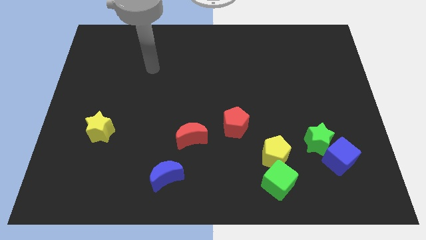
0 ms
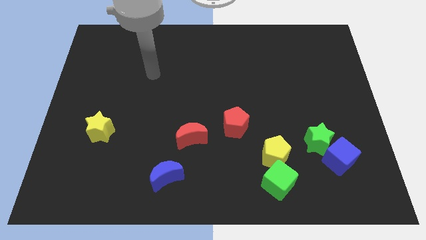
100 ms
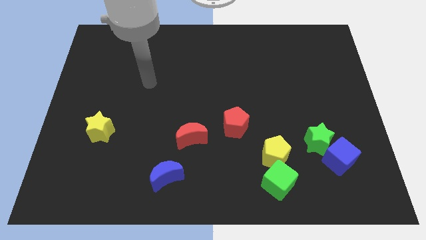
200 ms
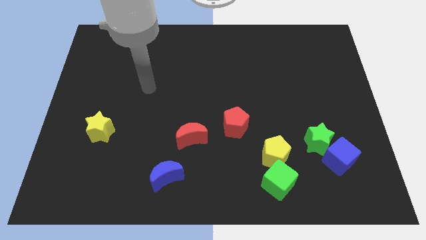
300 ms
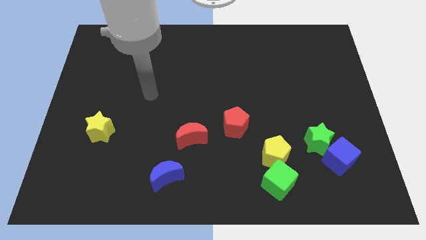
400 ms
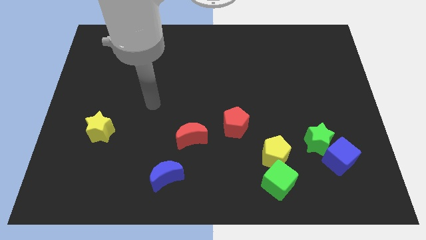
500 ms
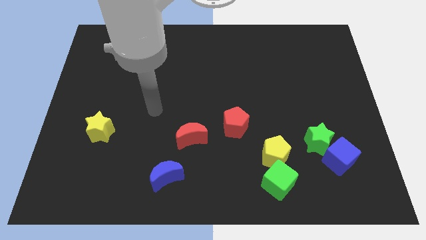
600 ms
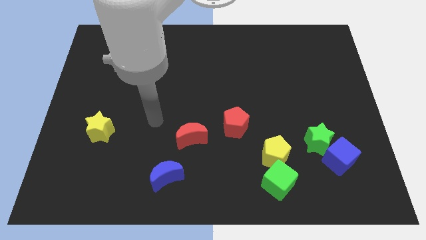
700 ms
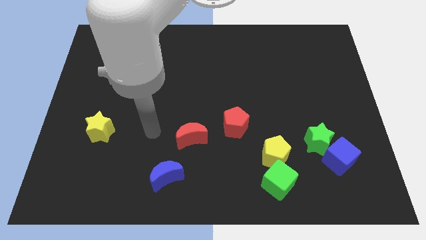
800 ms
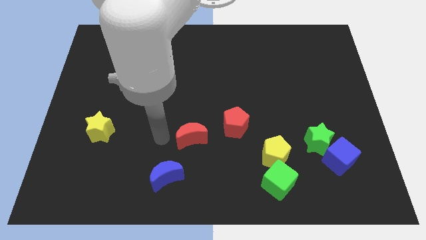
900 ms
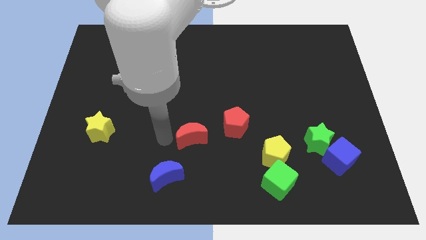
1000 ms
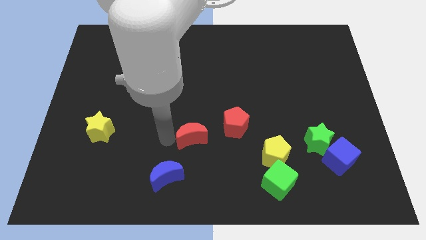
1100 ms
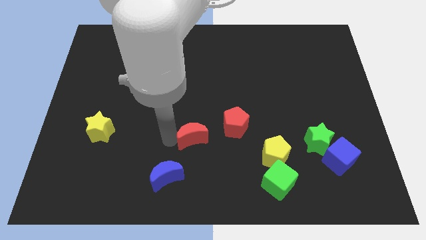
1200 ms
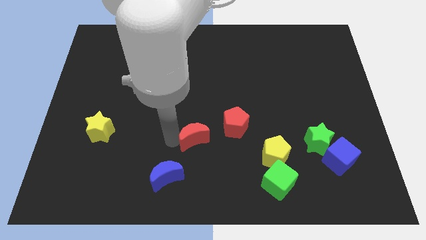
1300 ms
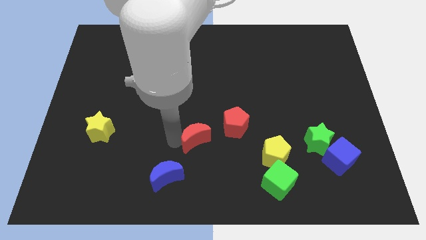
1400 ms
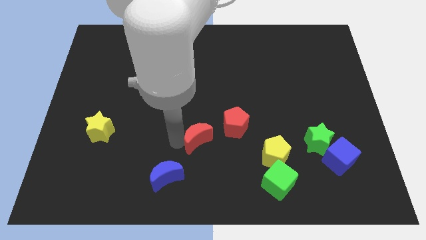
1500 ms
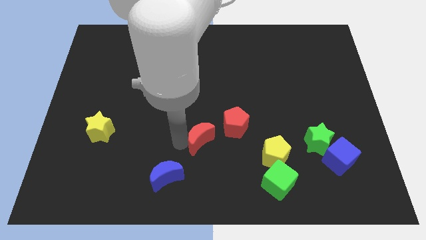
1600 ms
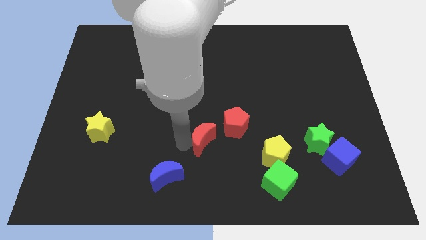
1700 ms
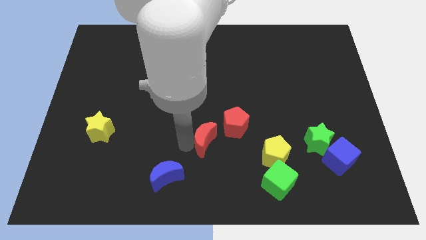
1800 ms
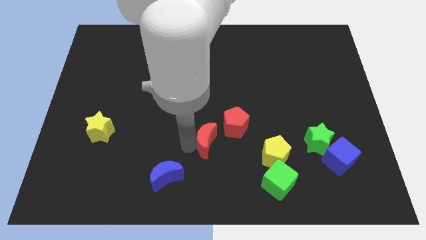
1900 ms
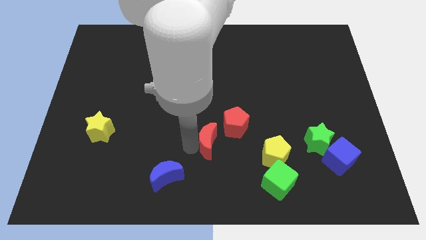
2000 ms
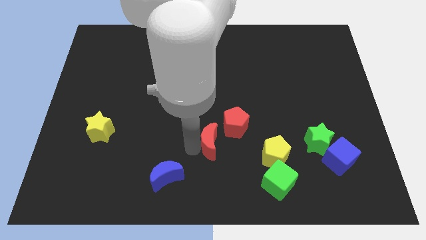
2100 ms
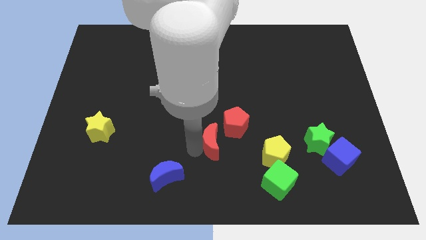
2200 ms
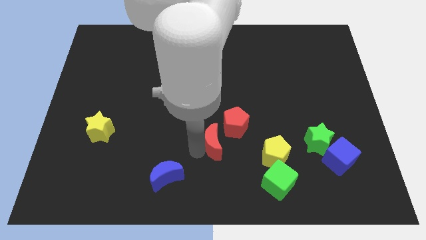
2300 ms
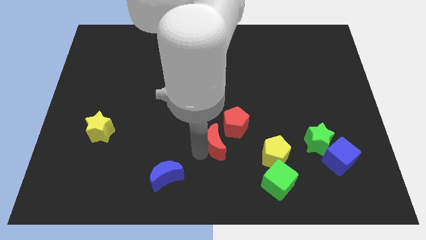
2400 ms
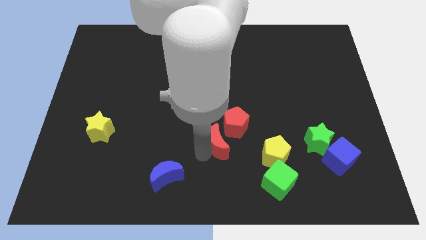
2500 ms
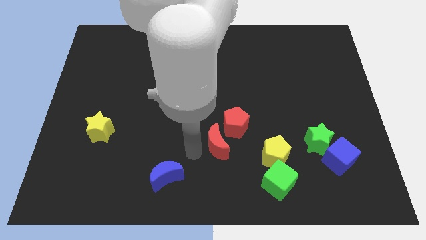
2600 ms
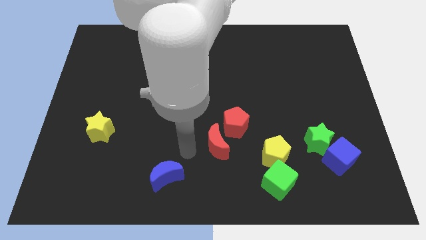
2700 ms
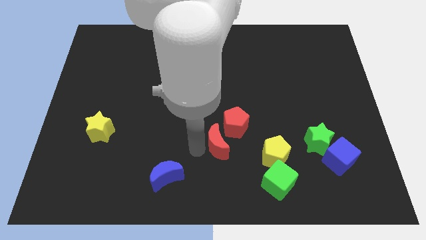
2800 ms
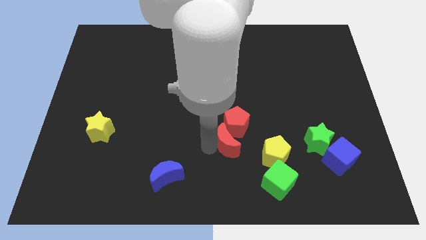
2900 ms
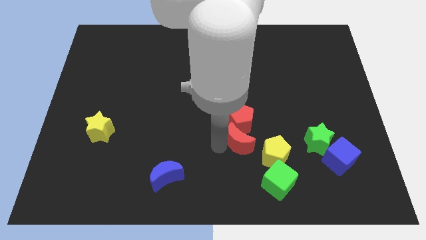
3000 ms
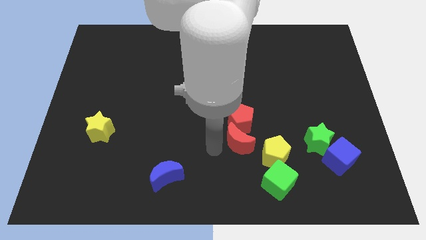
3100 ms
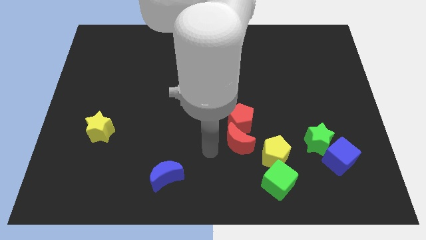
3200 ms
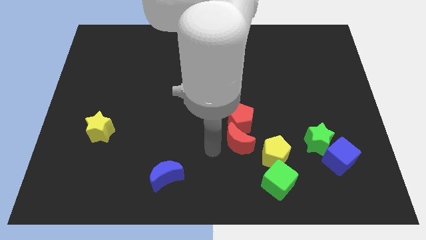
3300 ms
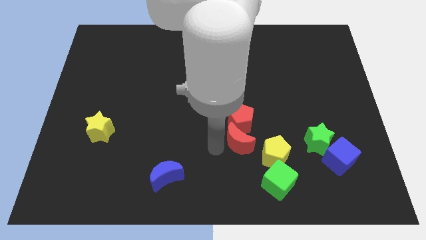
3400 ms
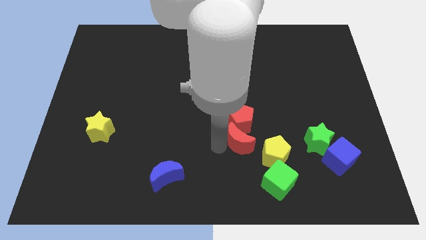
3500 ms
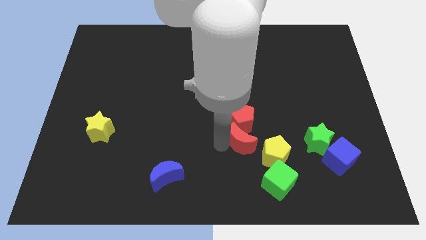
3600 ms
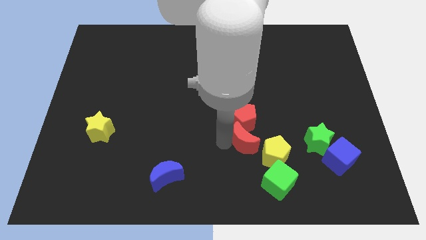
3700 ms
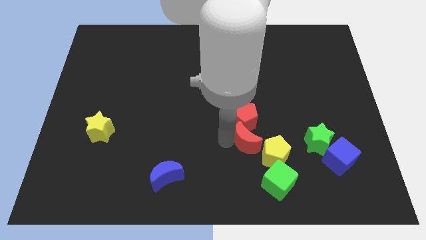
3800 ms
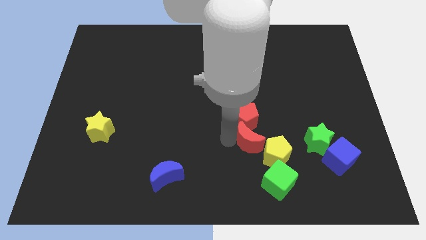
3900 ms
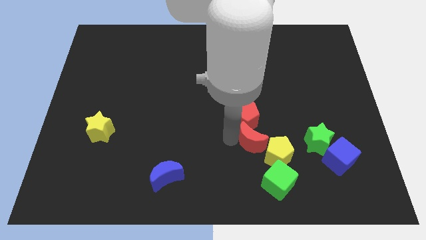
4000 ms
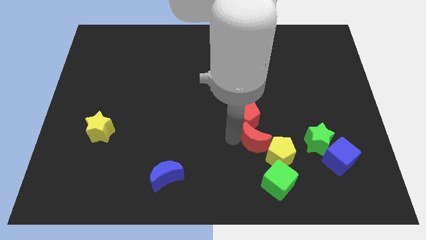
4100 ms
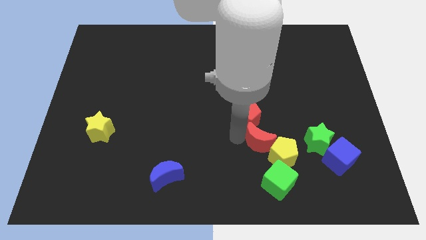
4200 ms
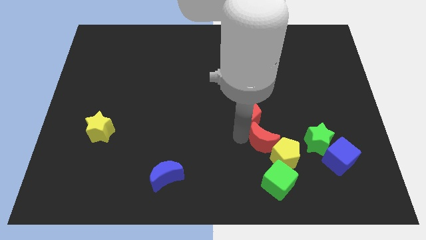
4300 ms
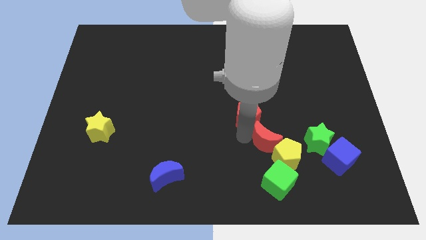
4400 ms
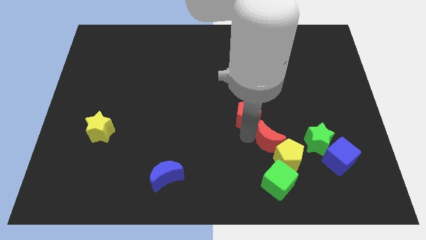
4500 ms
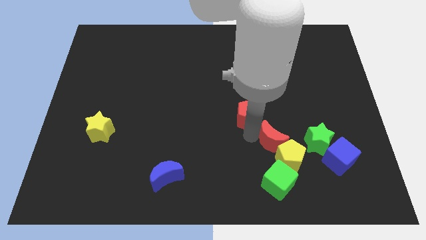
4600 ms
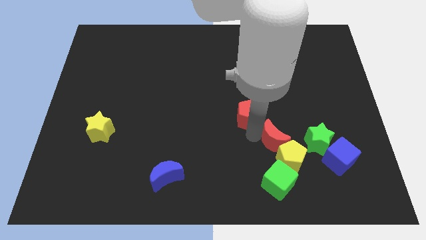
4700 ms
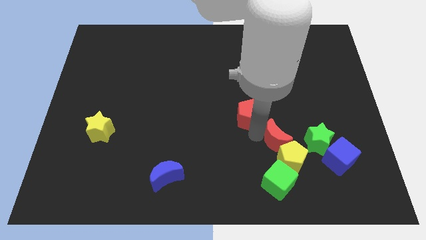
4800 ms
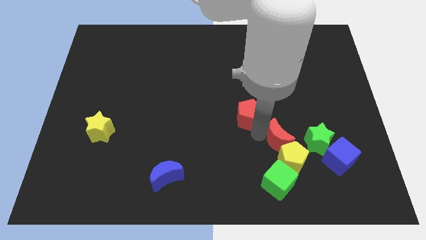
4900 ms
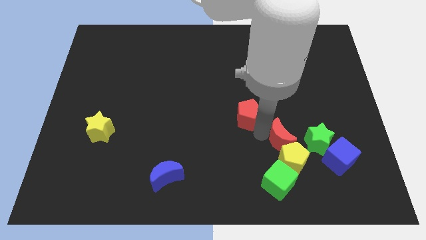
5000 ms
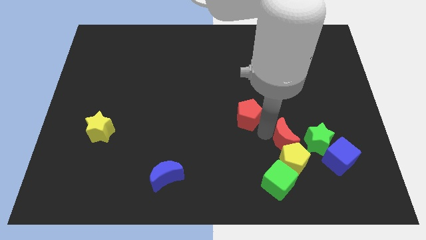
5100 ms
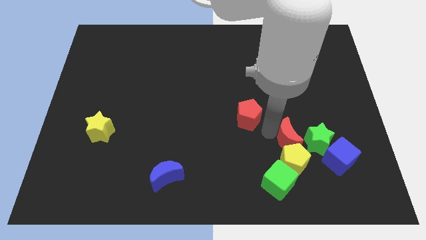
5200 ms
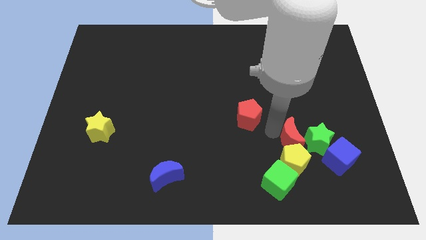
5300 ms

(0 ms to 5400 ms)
put the red moon close to the green star

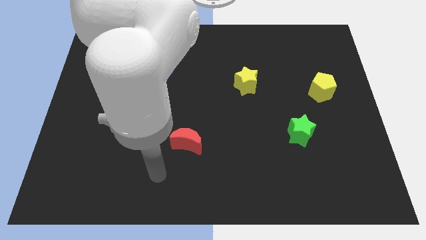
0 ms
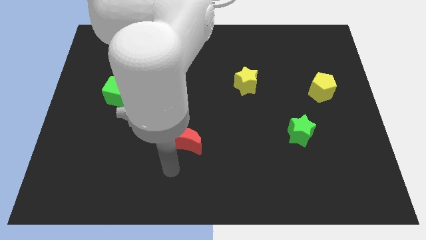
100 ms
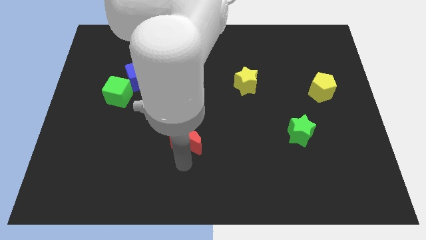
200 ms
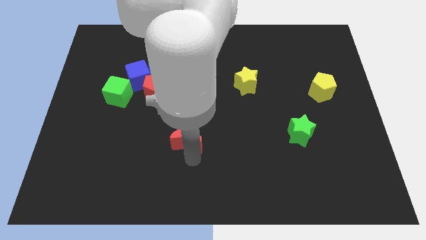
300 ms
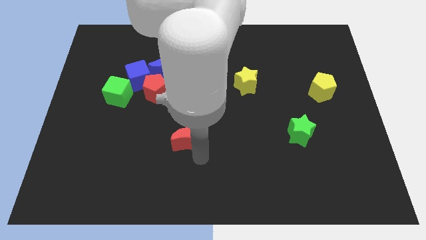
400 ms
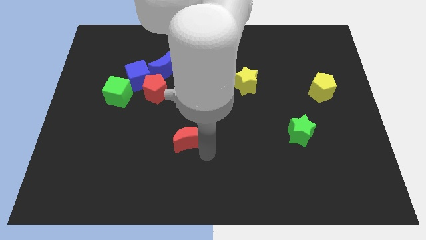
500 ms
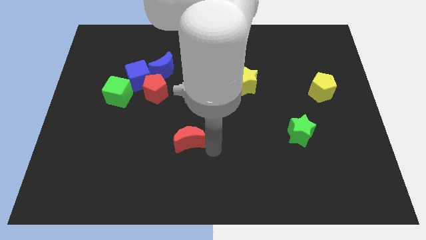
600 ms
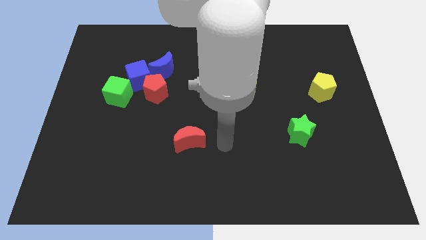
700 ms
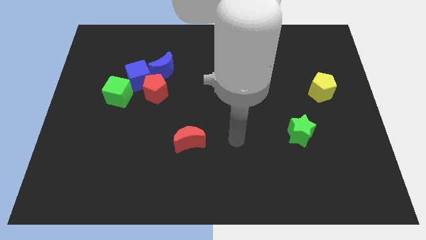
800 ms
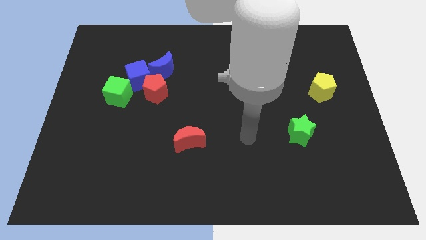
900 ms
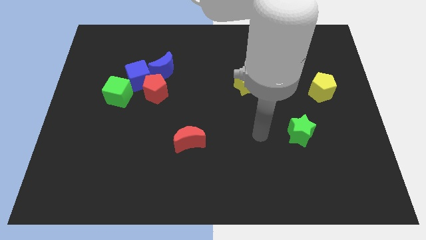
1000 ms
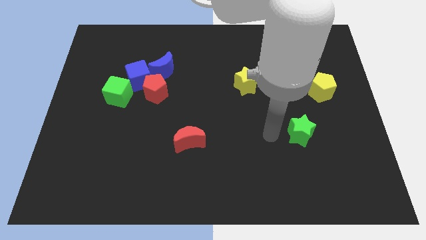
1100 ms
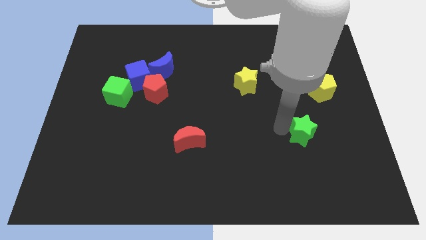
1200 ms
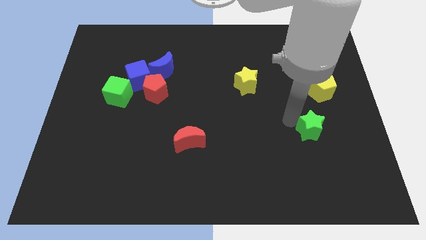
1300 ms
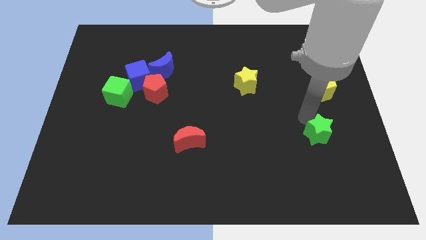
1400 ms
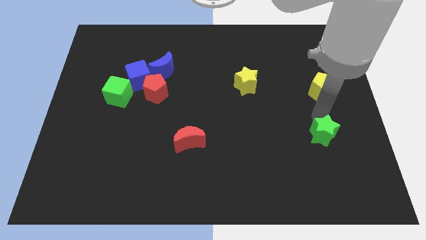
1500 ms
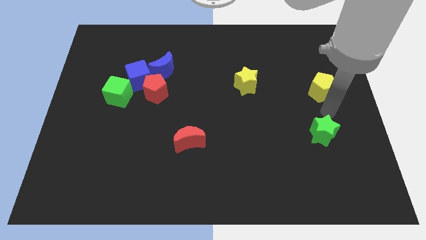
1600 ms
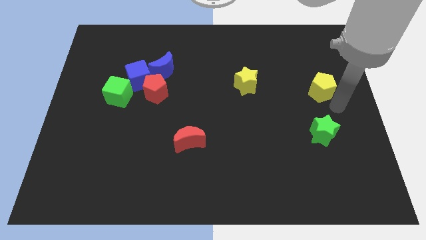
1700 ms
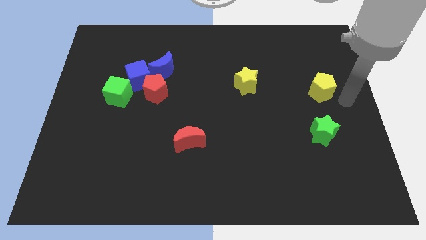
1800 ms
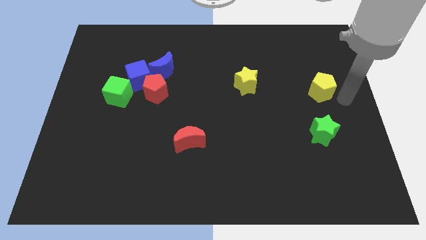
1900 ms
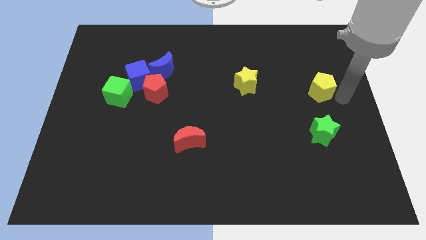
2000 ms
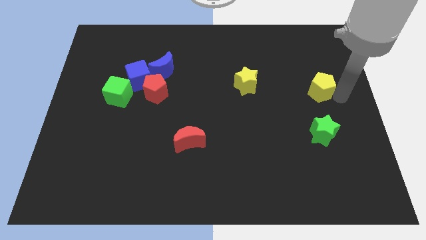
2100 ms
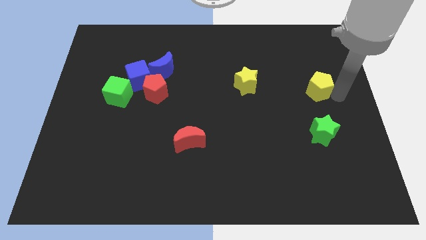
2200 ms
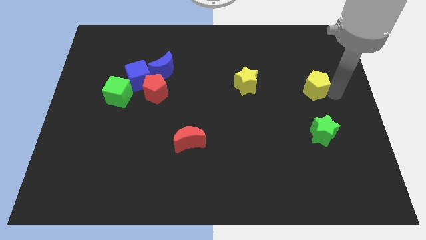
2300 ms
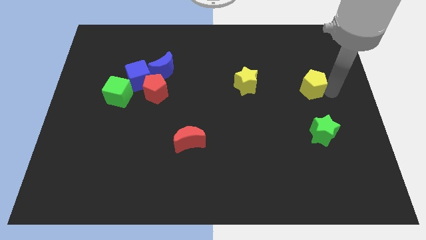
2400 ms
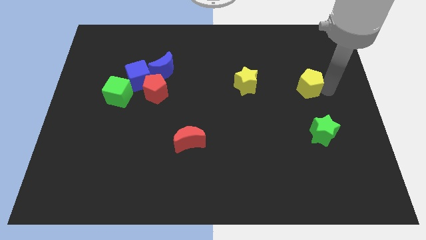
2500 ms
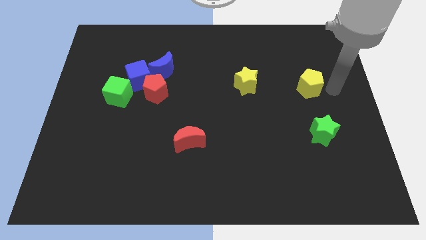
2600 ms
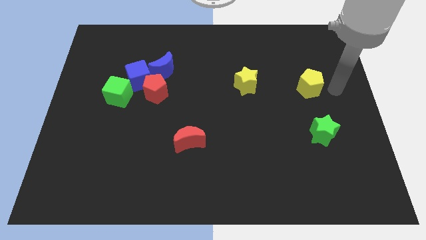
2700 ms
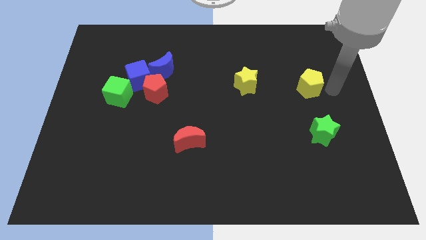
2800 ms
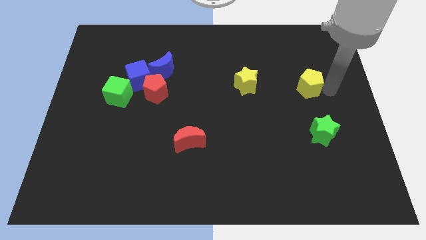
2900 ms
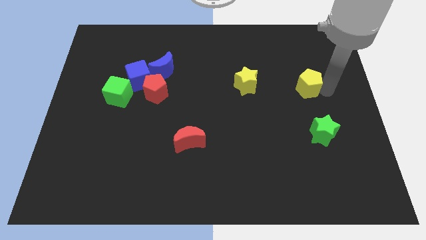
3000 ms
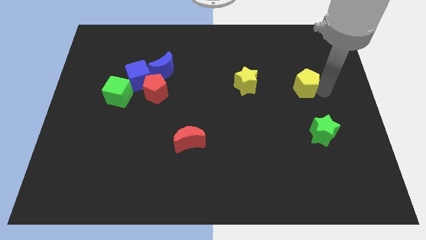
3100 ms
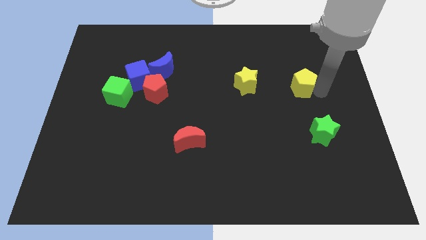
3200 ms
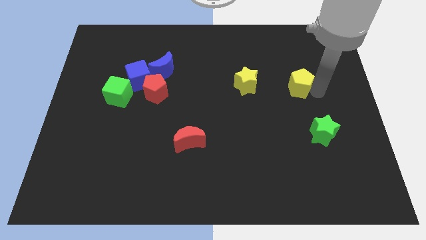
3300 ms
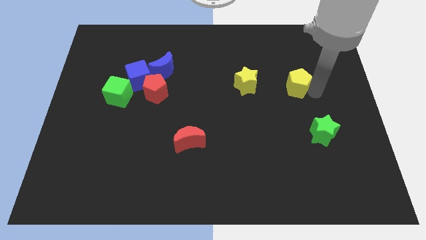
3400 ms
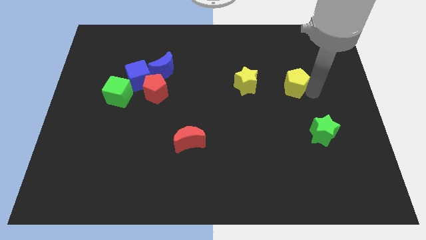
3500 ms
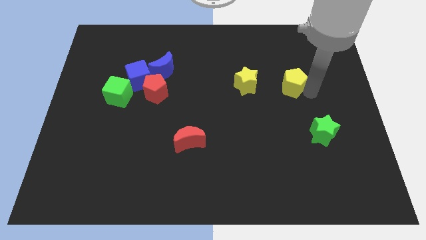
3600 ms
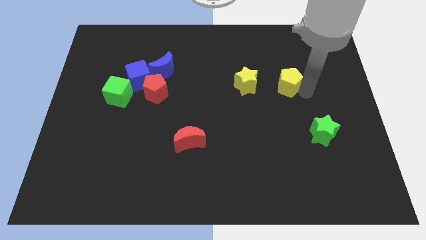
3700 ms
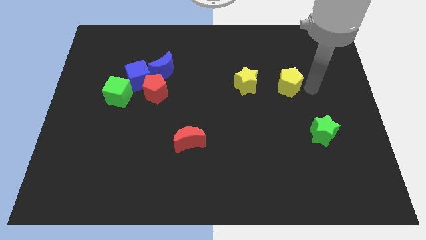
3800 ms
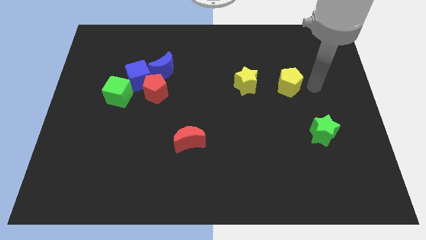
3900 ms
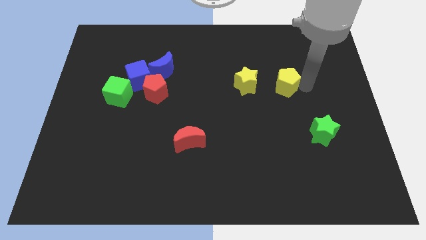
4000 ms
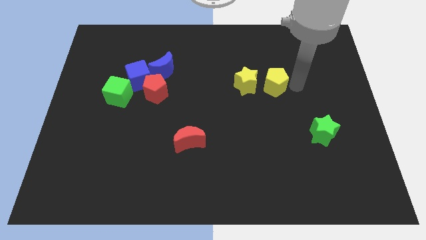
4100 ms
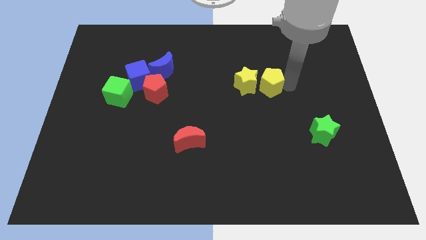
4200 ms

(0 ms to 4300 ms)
push the yellow pentagon to the yellow star
